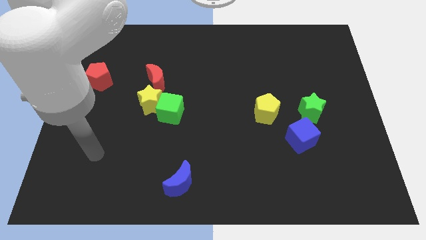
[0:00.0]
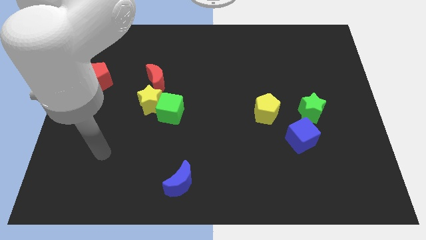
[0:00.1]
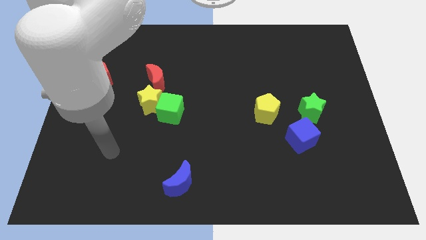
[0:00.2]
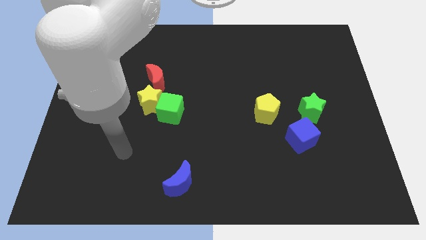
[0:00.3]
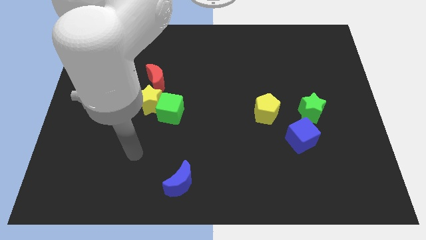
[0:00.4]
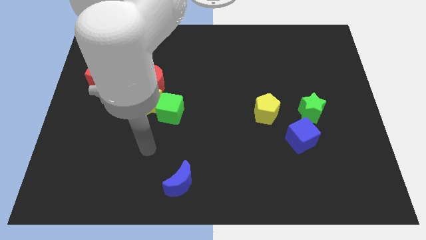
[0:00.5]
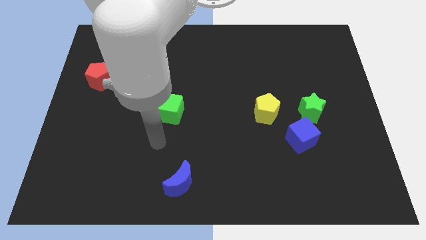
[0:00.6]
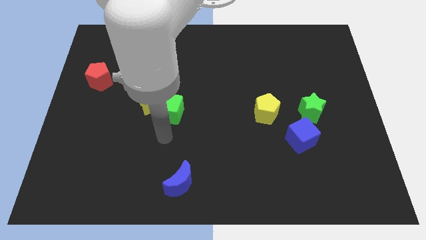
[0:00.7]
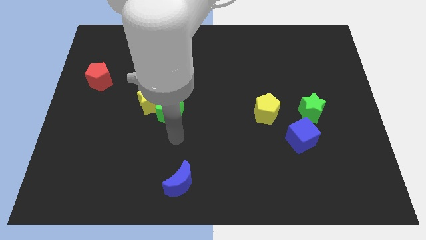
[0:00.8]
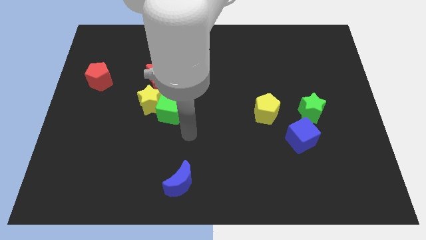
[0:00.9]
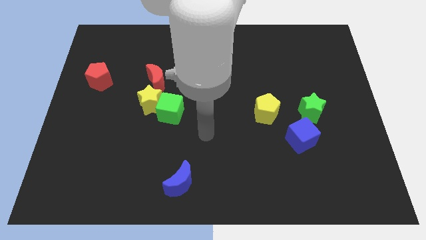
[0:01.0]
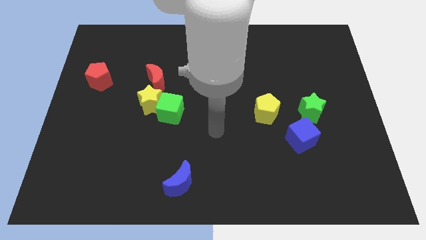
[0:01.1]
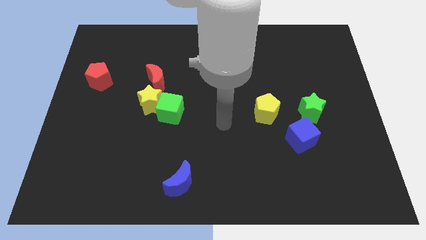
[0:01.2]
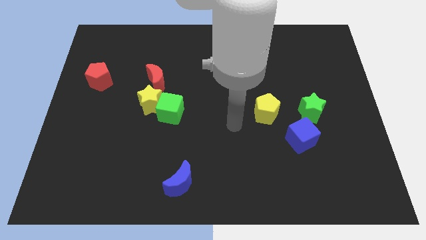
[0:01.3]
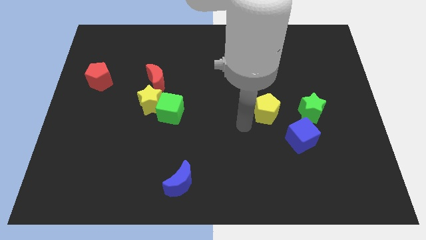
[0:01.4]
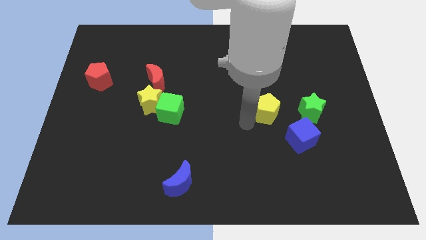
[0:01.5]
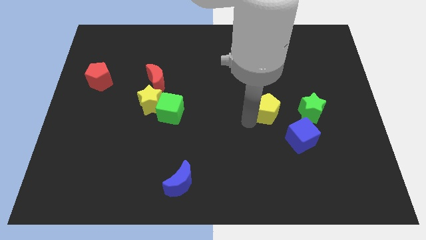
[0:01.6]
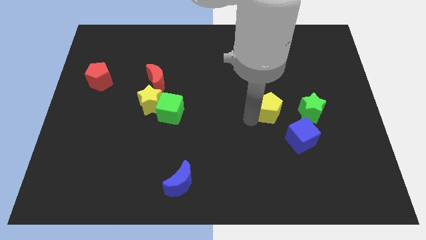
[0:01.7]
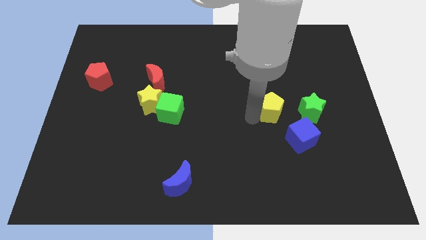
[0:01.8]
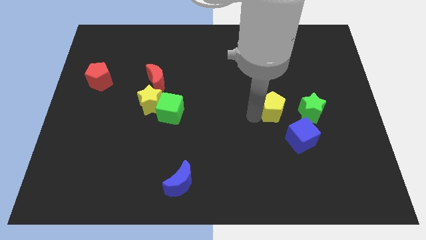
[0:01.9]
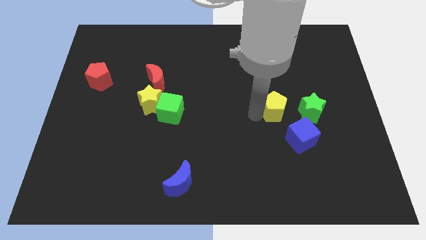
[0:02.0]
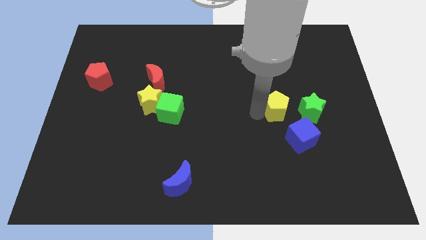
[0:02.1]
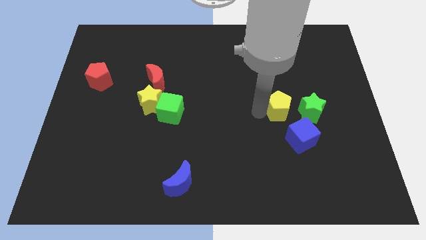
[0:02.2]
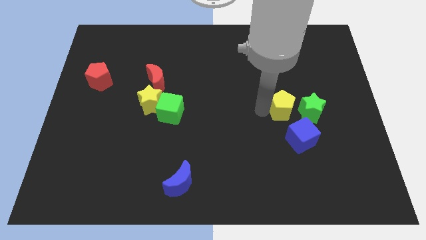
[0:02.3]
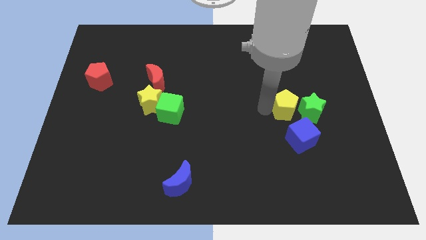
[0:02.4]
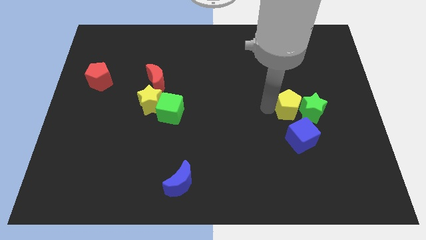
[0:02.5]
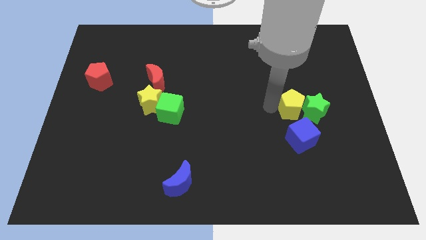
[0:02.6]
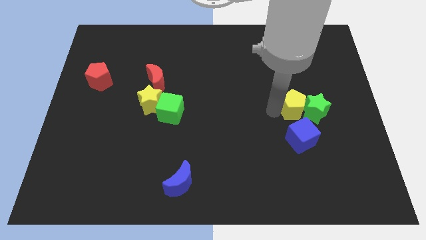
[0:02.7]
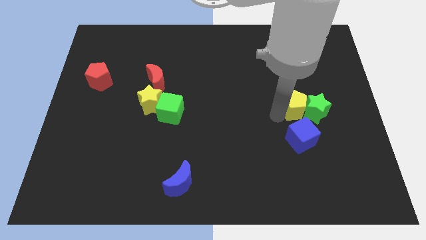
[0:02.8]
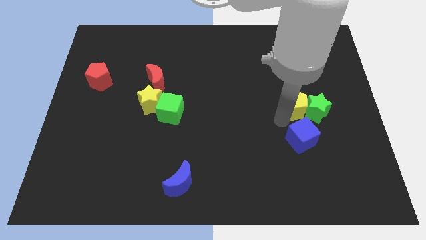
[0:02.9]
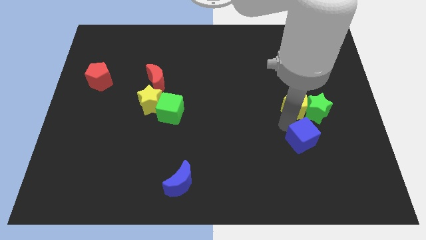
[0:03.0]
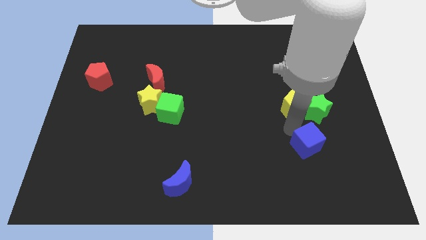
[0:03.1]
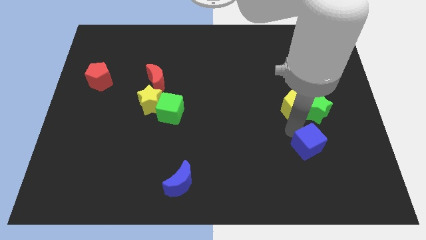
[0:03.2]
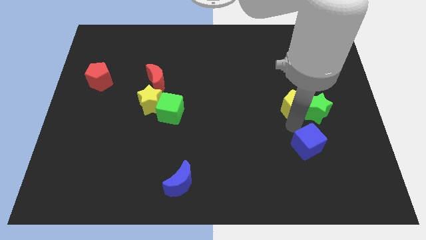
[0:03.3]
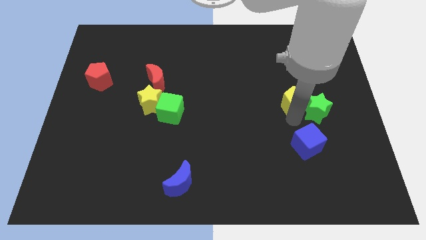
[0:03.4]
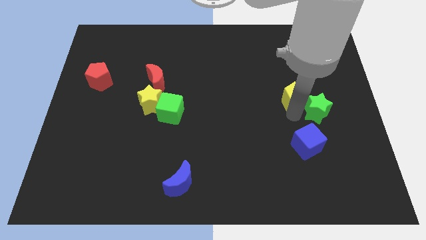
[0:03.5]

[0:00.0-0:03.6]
slightly push the yellow pentagon upwards and then to the right

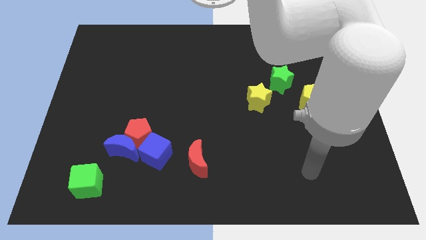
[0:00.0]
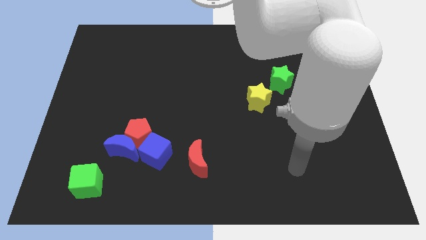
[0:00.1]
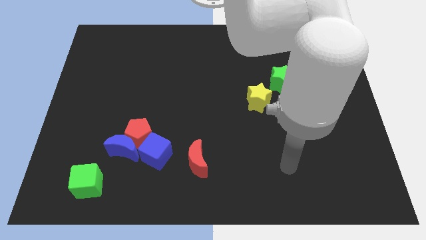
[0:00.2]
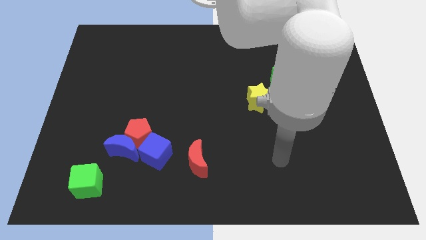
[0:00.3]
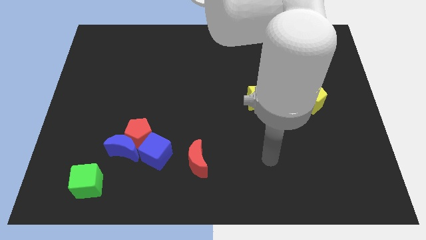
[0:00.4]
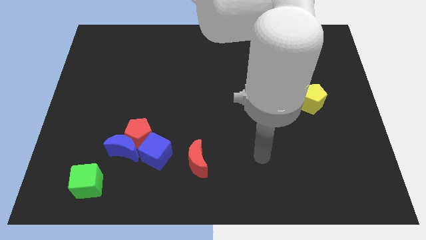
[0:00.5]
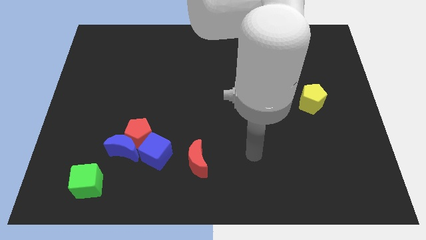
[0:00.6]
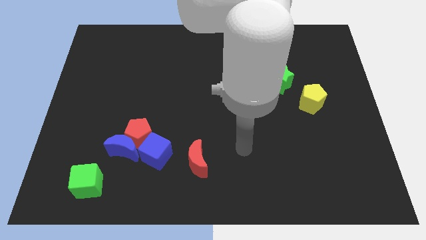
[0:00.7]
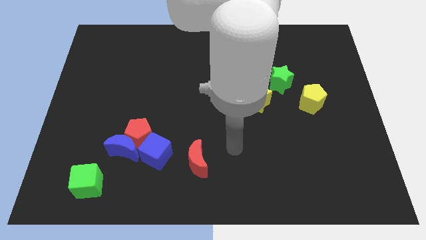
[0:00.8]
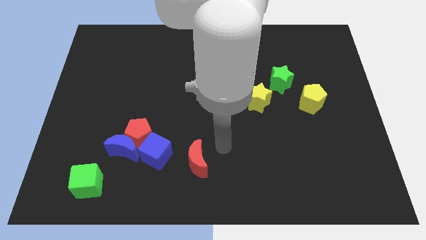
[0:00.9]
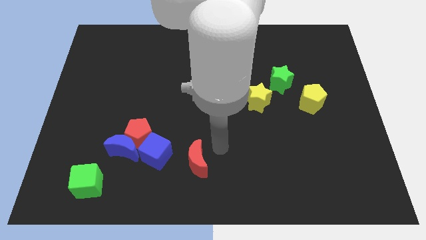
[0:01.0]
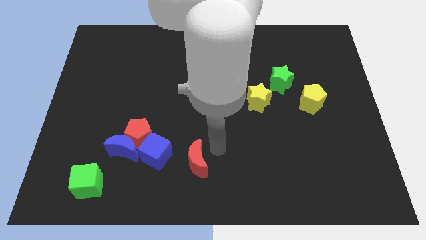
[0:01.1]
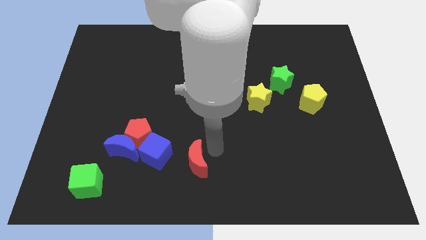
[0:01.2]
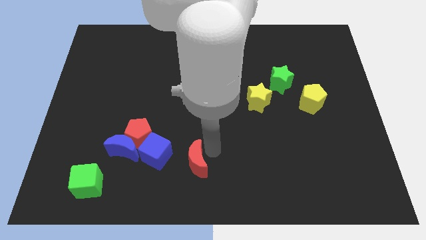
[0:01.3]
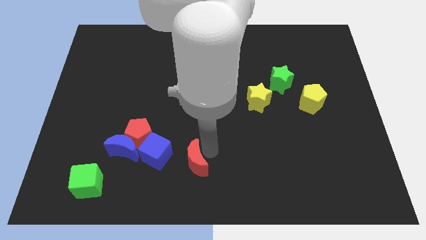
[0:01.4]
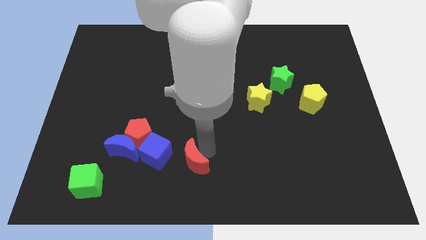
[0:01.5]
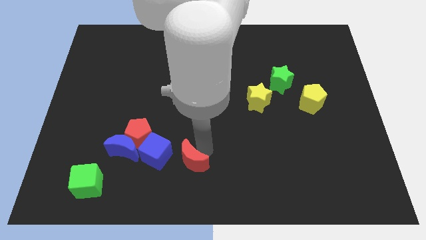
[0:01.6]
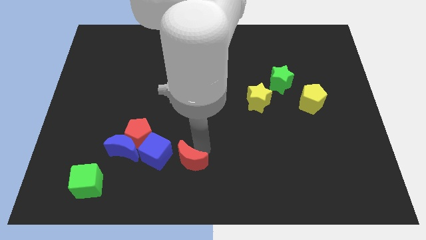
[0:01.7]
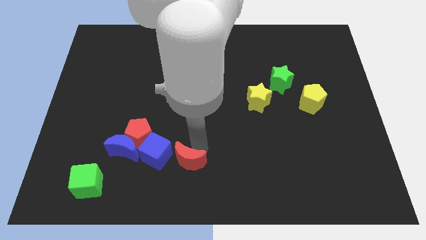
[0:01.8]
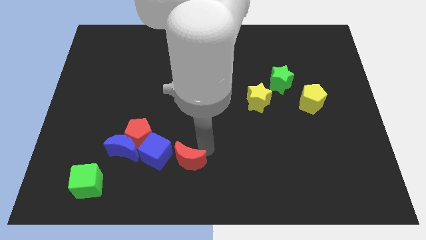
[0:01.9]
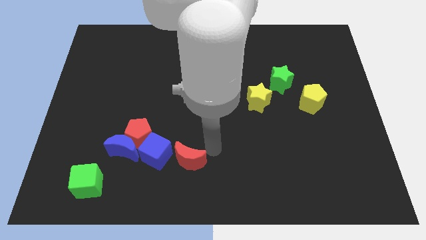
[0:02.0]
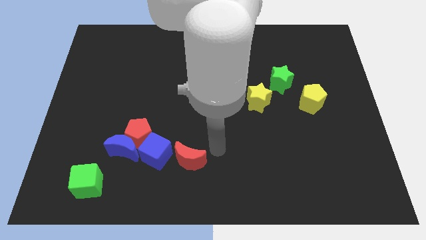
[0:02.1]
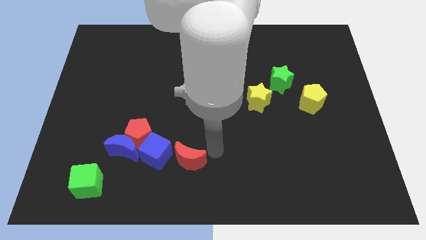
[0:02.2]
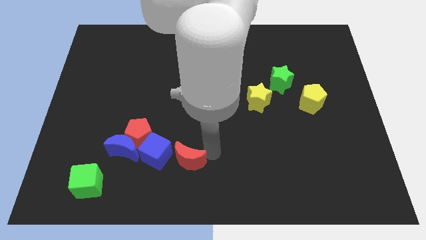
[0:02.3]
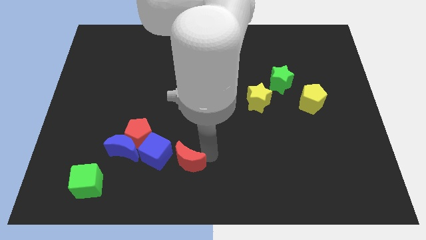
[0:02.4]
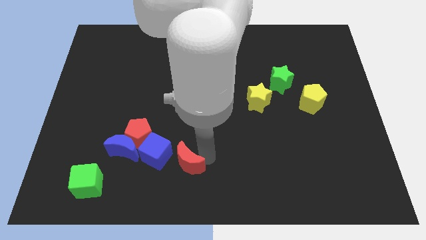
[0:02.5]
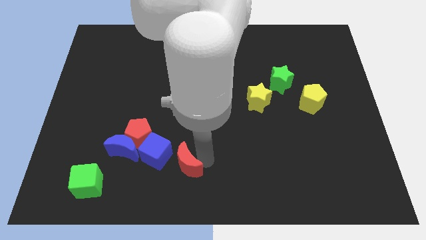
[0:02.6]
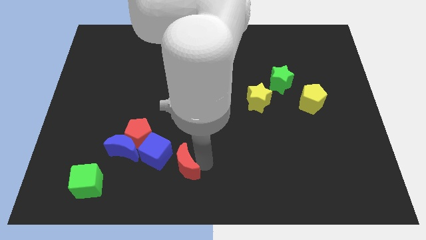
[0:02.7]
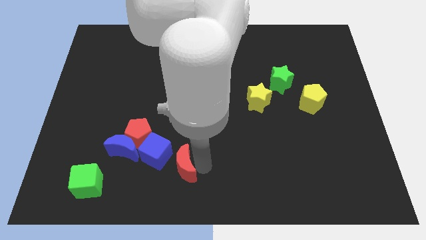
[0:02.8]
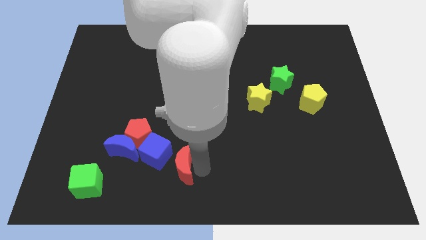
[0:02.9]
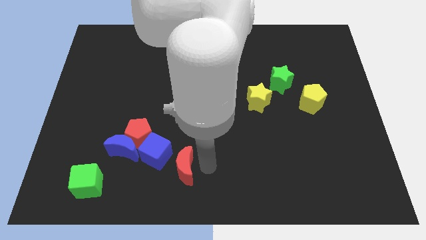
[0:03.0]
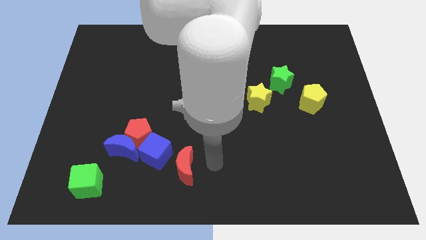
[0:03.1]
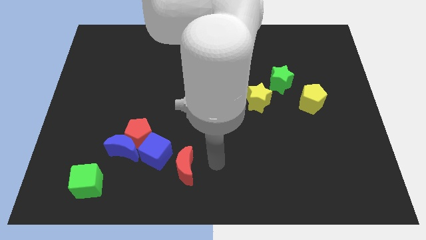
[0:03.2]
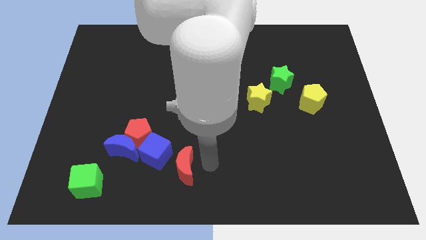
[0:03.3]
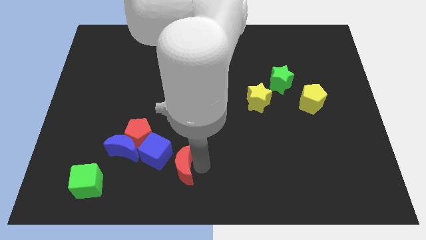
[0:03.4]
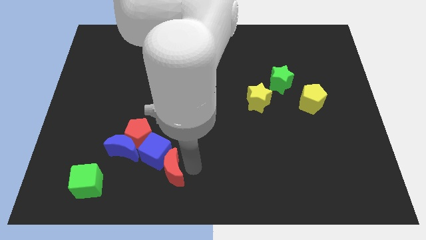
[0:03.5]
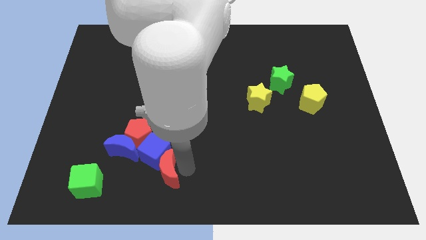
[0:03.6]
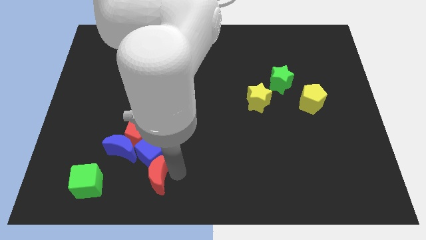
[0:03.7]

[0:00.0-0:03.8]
push the red moon a little bit to the left

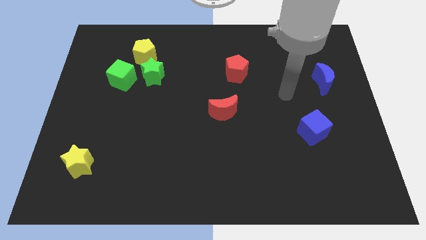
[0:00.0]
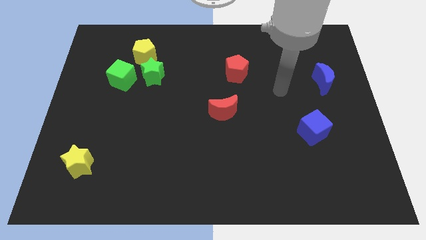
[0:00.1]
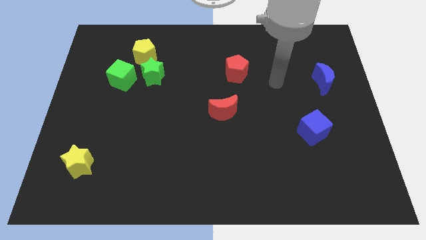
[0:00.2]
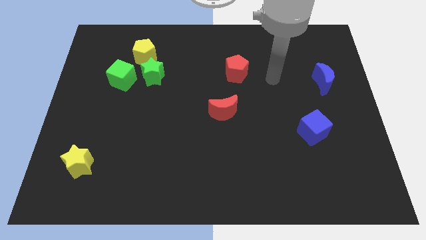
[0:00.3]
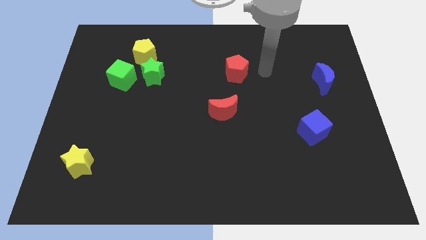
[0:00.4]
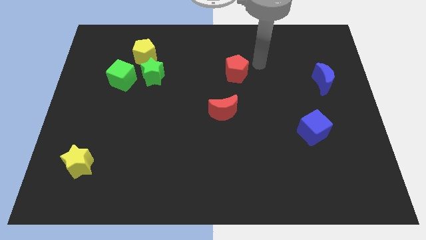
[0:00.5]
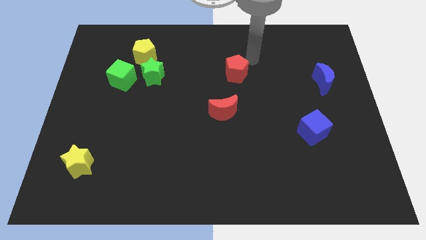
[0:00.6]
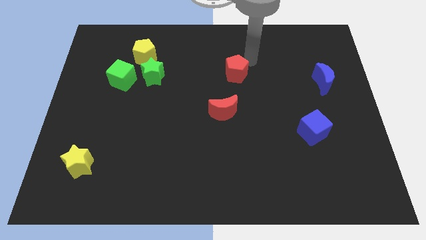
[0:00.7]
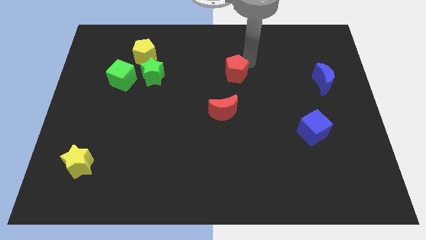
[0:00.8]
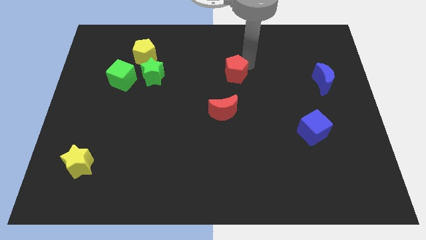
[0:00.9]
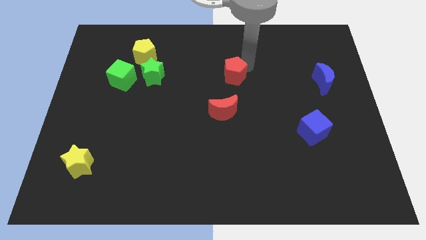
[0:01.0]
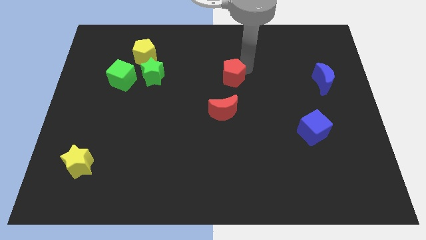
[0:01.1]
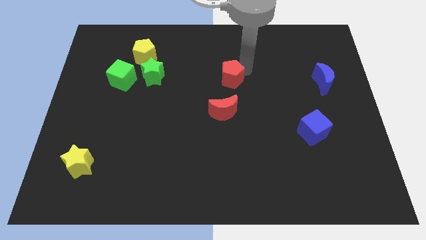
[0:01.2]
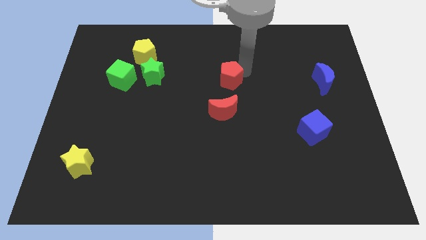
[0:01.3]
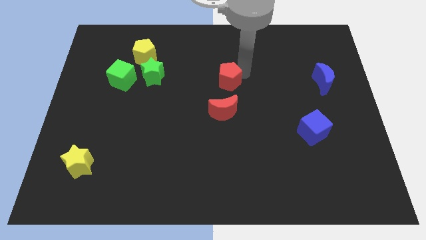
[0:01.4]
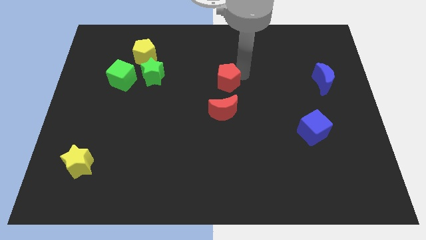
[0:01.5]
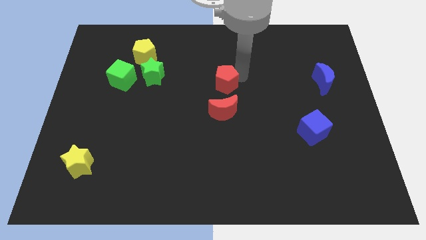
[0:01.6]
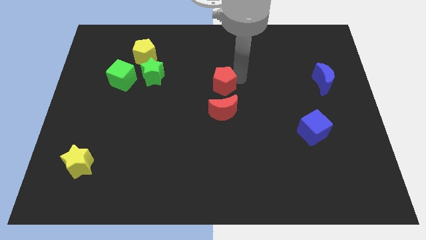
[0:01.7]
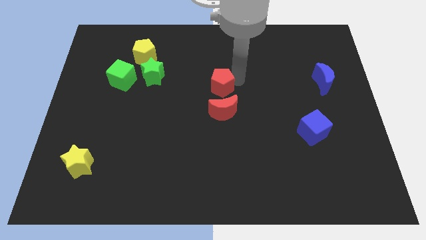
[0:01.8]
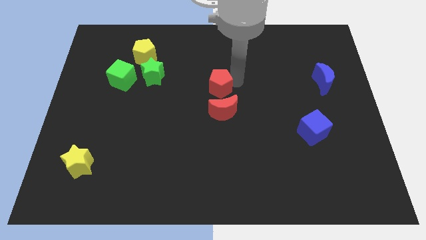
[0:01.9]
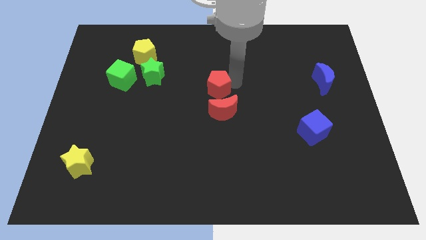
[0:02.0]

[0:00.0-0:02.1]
slightly move the red pentagon down and left
